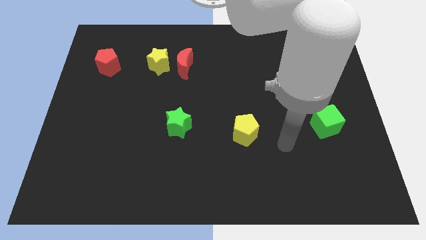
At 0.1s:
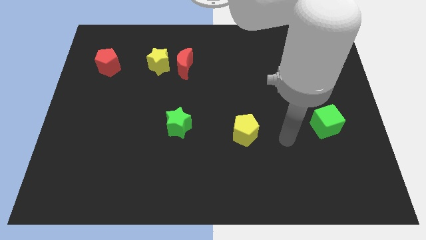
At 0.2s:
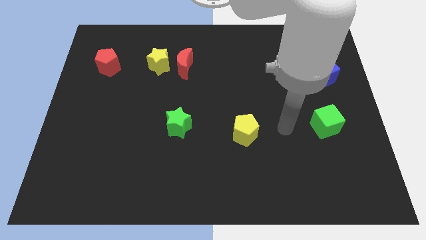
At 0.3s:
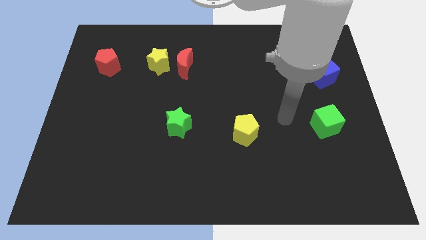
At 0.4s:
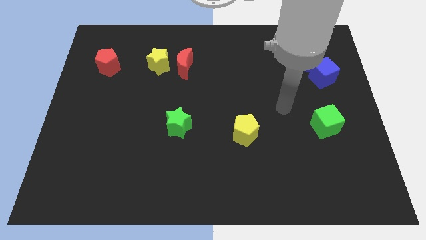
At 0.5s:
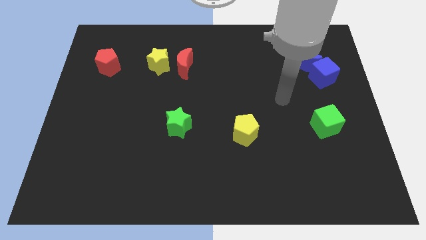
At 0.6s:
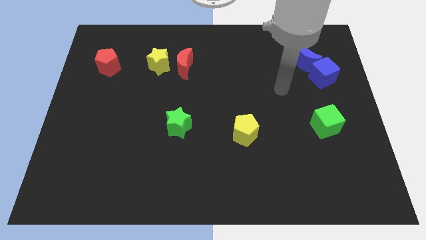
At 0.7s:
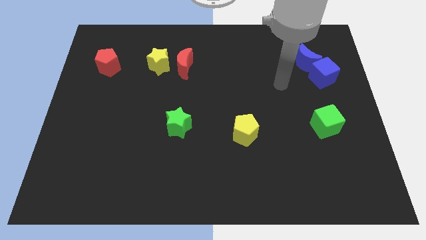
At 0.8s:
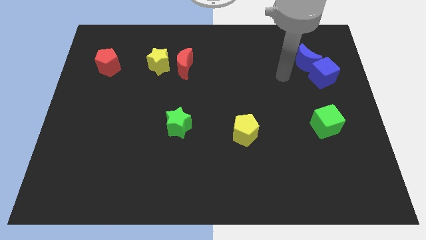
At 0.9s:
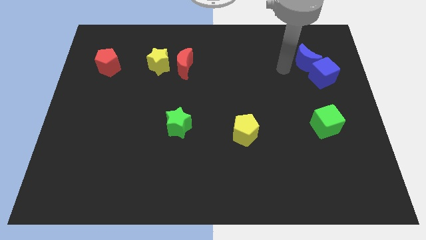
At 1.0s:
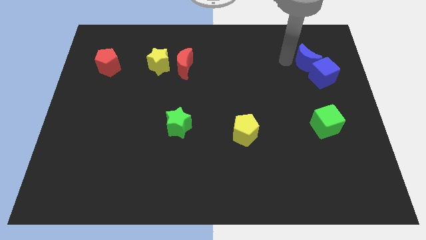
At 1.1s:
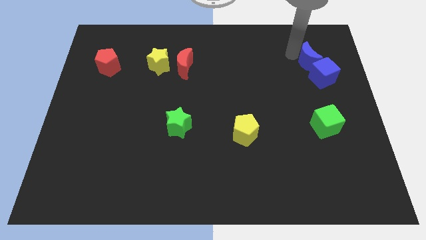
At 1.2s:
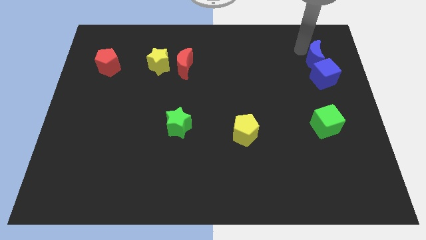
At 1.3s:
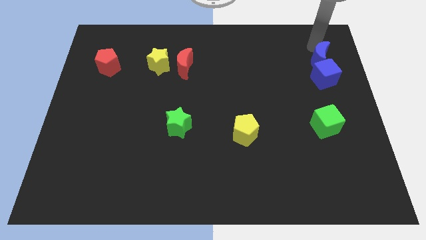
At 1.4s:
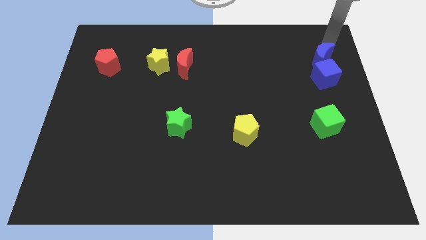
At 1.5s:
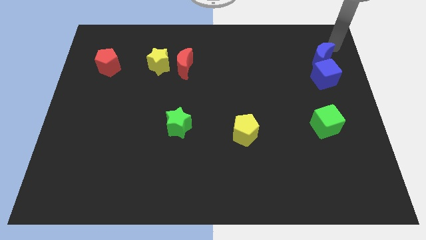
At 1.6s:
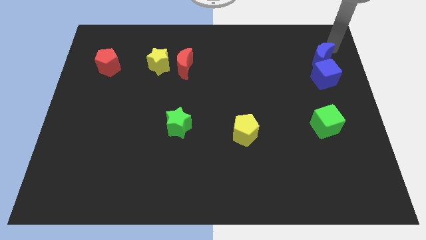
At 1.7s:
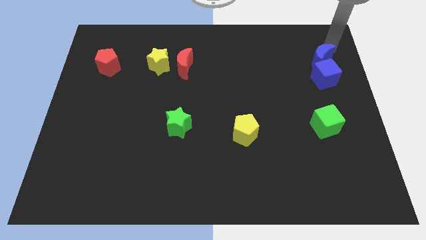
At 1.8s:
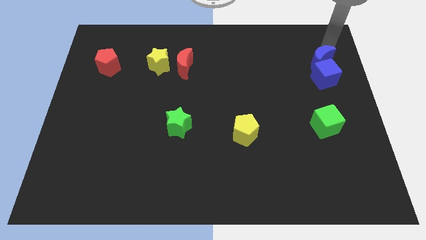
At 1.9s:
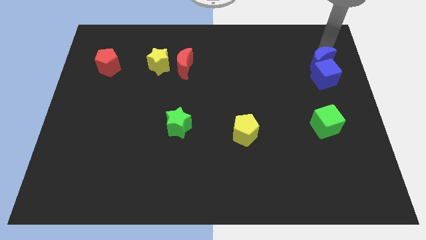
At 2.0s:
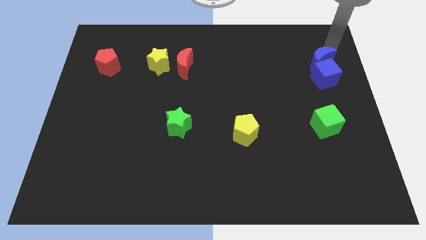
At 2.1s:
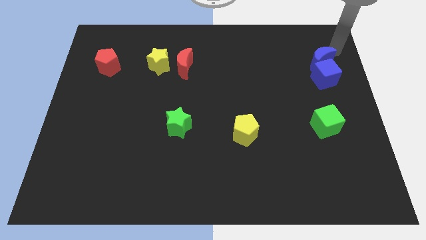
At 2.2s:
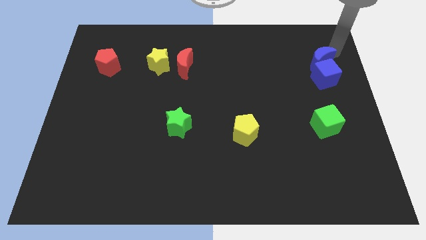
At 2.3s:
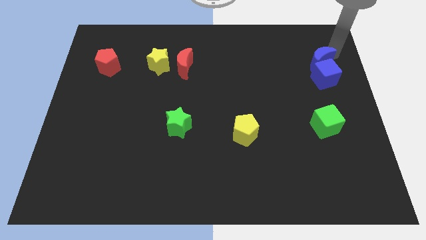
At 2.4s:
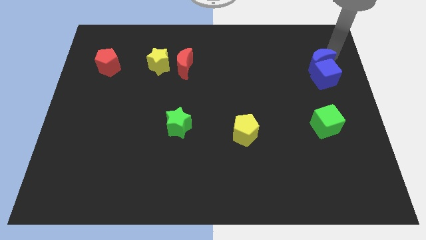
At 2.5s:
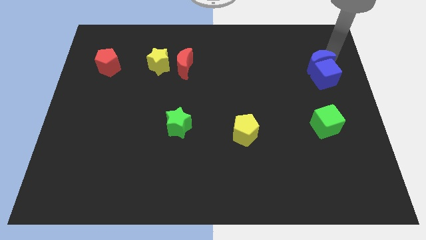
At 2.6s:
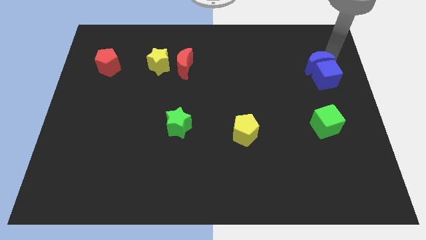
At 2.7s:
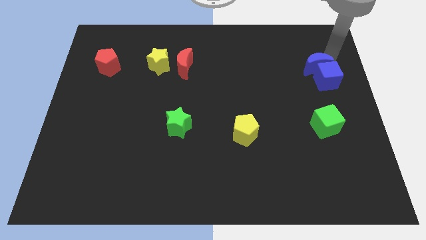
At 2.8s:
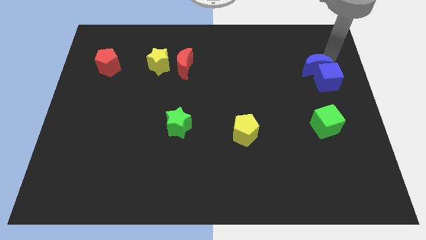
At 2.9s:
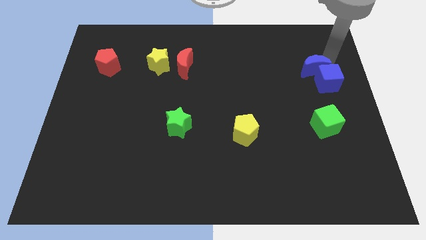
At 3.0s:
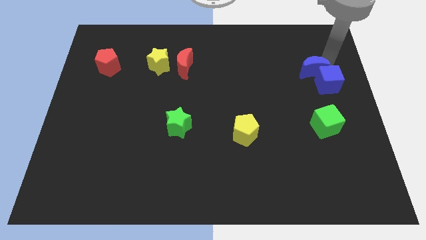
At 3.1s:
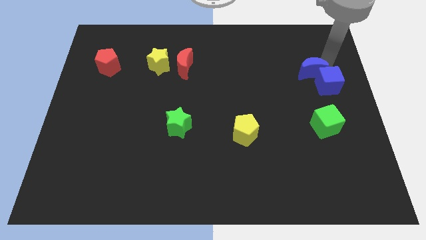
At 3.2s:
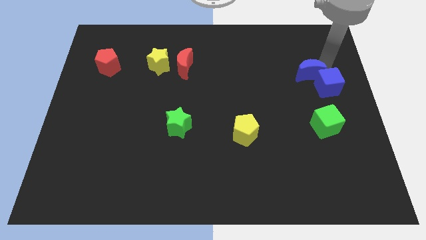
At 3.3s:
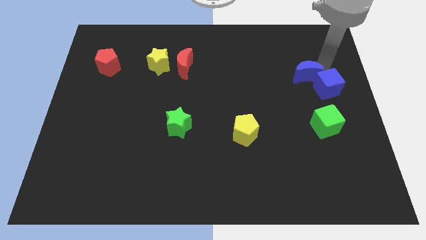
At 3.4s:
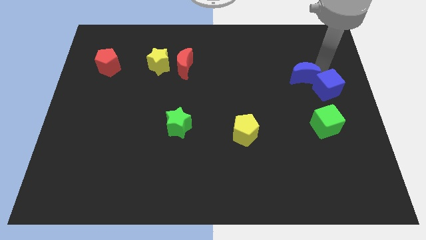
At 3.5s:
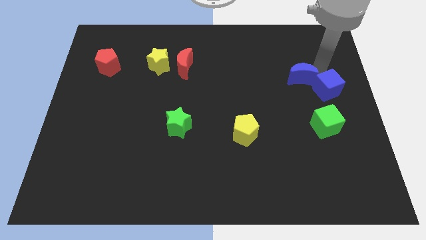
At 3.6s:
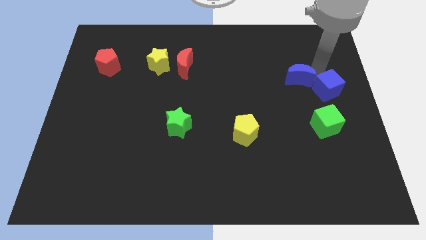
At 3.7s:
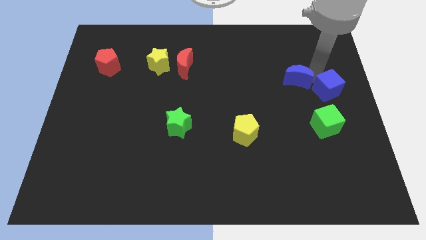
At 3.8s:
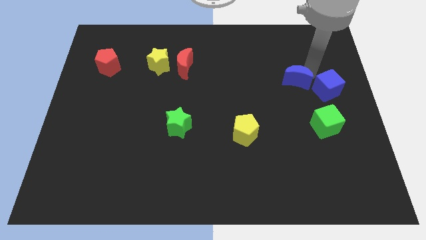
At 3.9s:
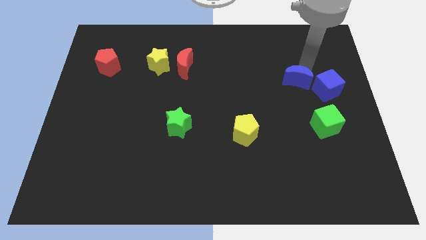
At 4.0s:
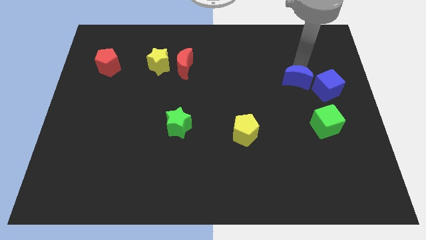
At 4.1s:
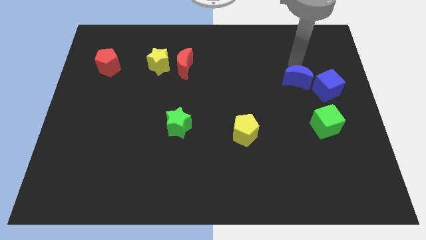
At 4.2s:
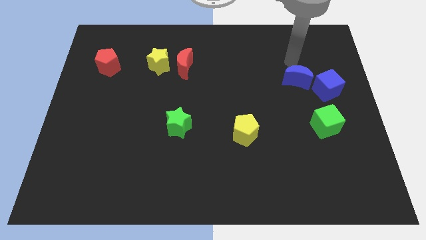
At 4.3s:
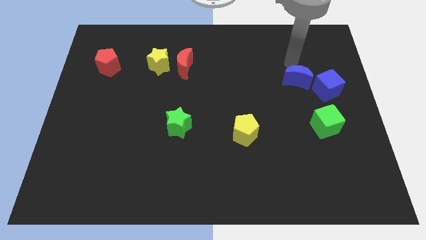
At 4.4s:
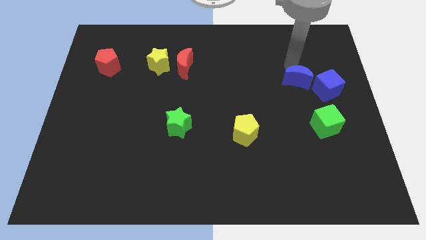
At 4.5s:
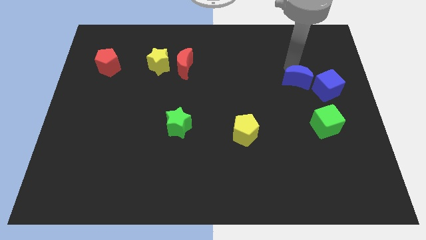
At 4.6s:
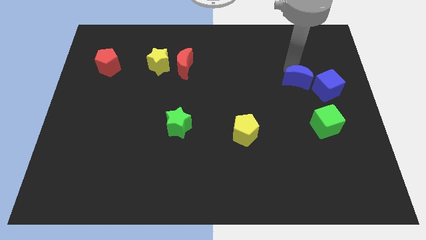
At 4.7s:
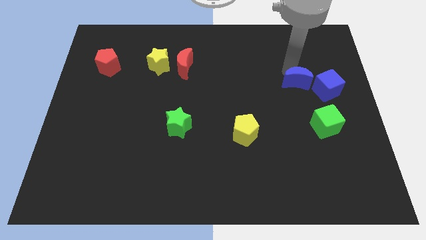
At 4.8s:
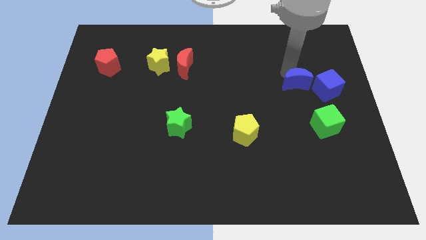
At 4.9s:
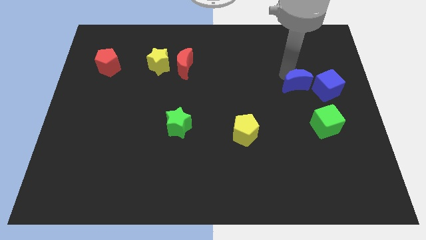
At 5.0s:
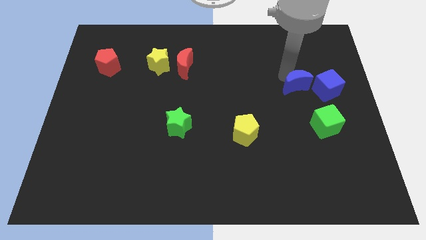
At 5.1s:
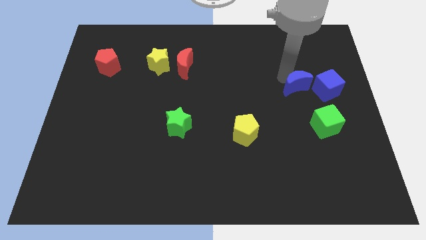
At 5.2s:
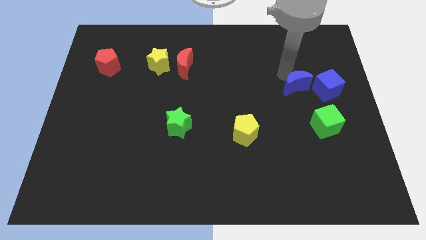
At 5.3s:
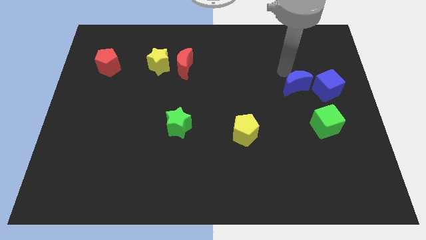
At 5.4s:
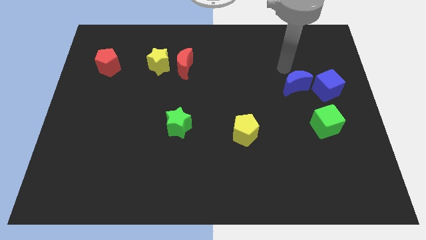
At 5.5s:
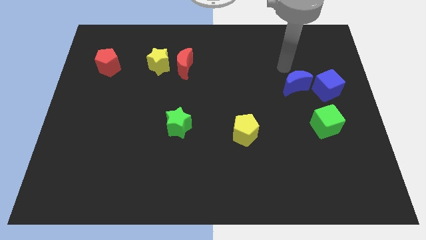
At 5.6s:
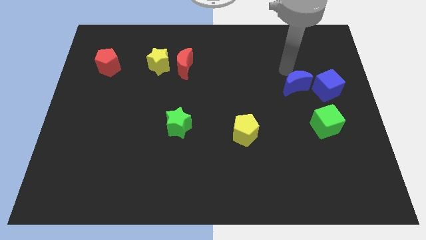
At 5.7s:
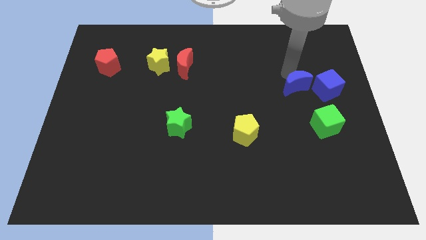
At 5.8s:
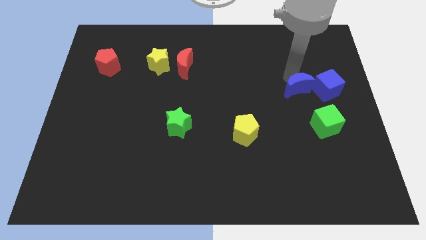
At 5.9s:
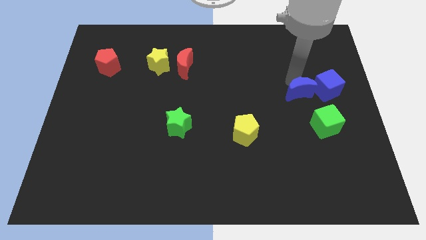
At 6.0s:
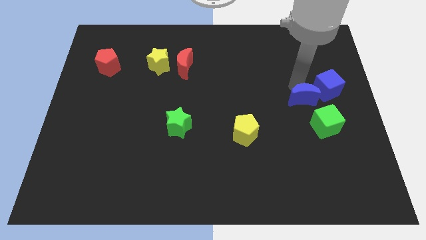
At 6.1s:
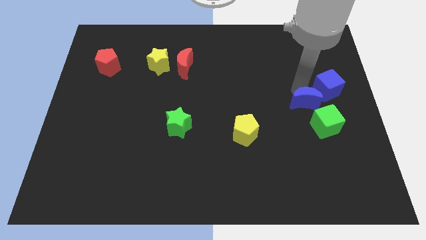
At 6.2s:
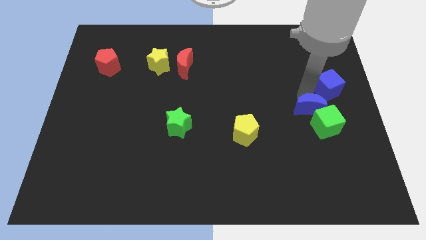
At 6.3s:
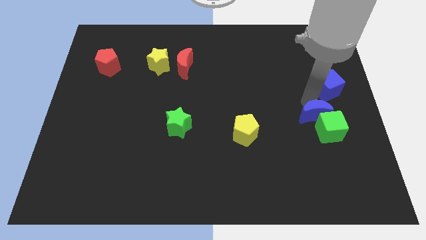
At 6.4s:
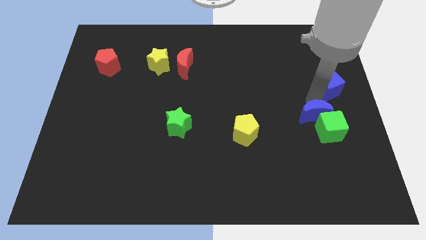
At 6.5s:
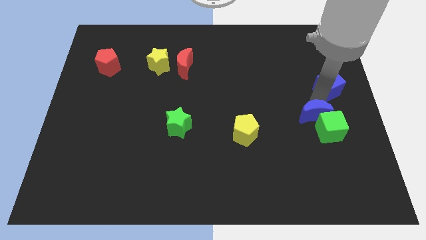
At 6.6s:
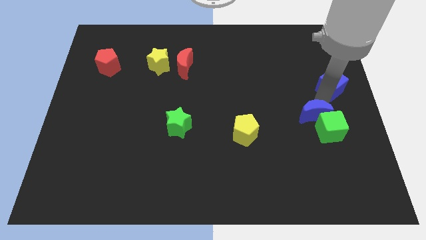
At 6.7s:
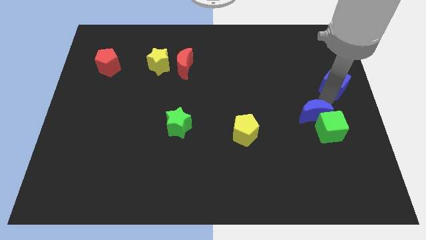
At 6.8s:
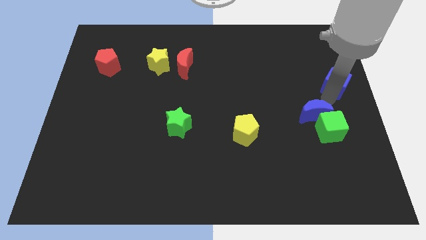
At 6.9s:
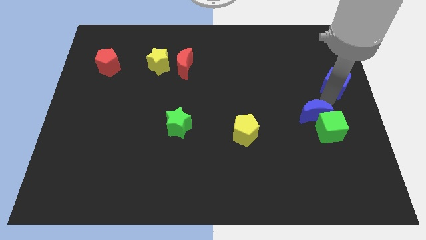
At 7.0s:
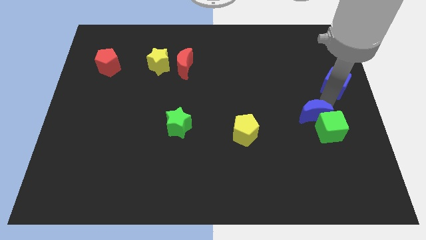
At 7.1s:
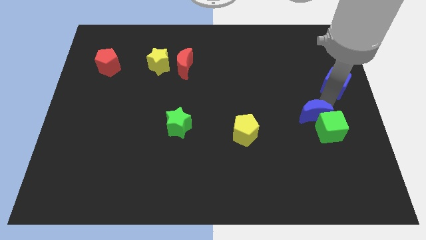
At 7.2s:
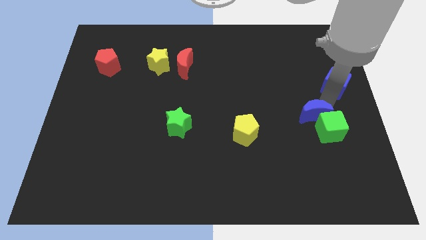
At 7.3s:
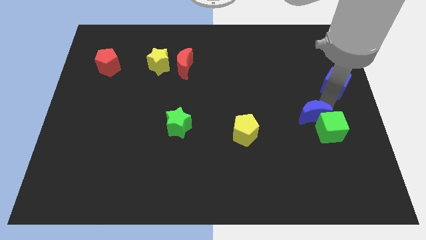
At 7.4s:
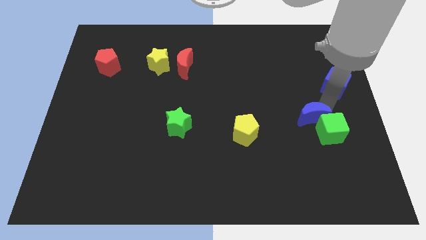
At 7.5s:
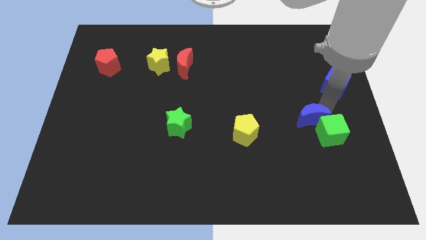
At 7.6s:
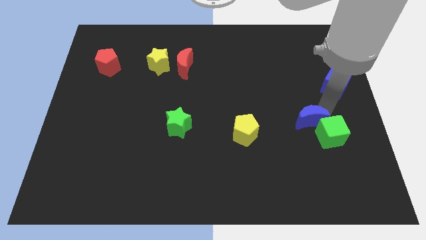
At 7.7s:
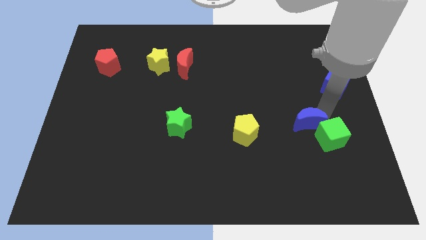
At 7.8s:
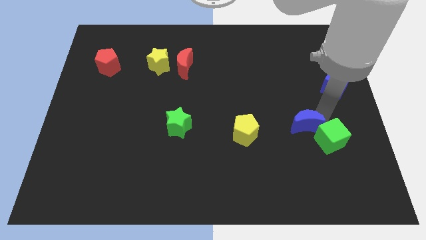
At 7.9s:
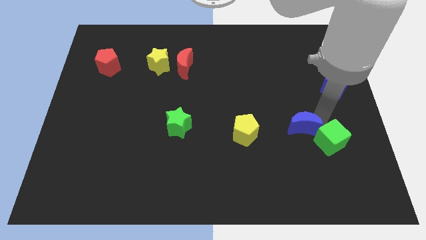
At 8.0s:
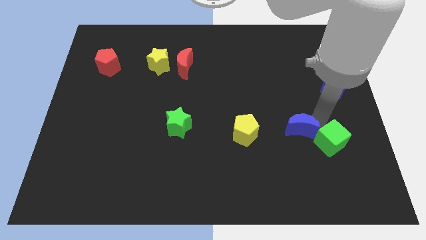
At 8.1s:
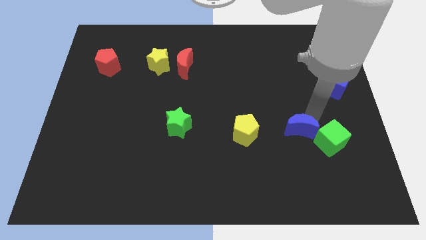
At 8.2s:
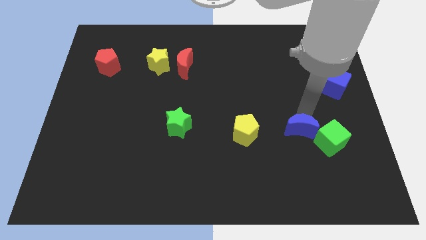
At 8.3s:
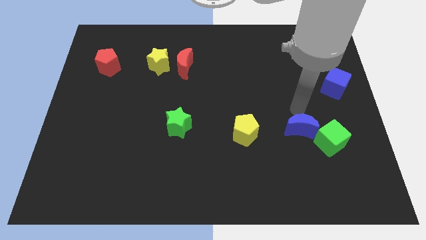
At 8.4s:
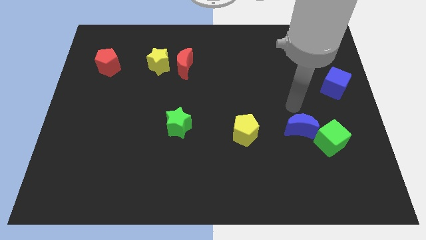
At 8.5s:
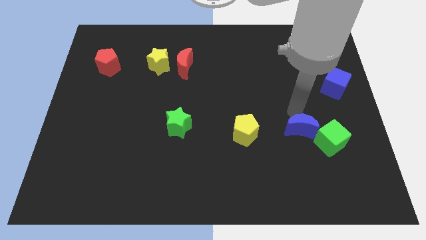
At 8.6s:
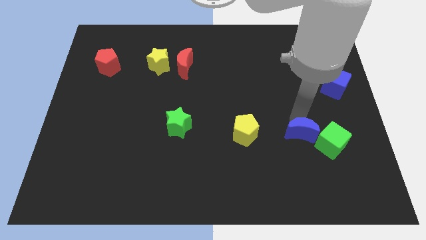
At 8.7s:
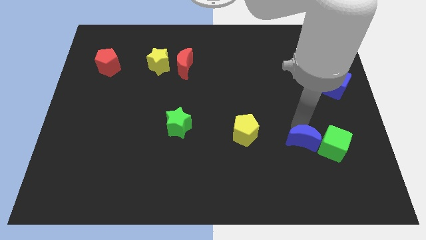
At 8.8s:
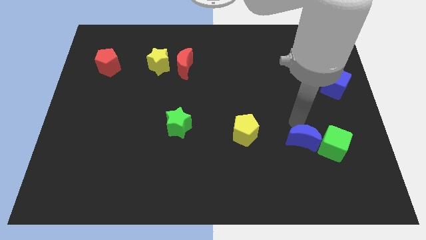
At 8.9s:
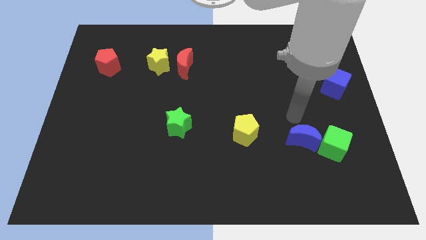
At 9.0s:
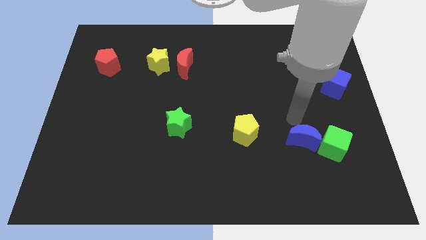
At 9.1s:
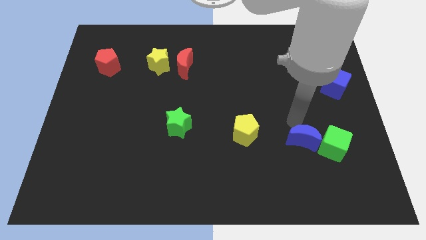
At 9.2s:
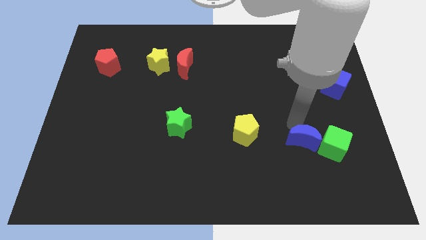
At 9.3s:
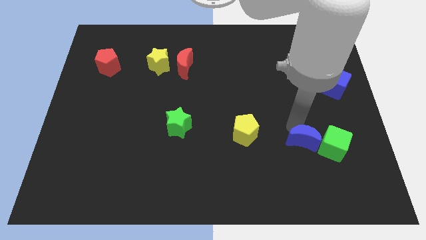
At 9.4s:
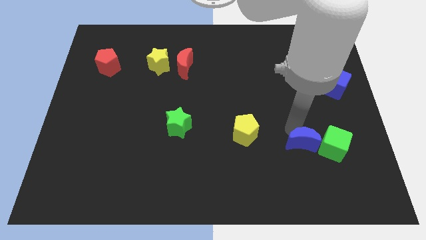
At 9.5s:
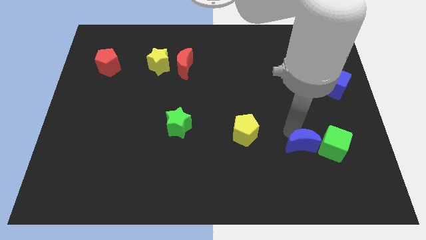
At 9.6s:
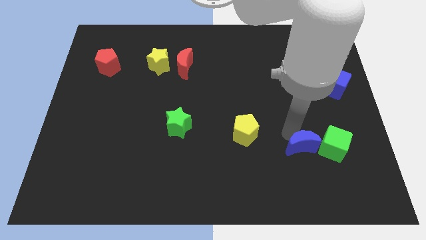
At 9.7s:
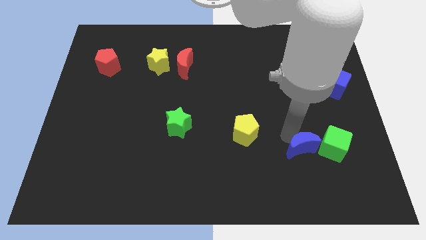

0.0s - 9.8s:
put the blue moon to the bottom left side of the green cube
